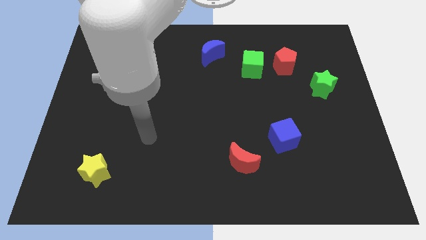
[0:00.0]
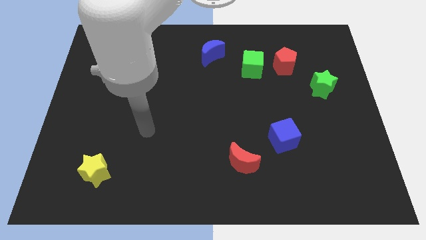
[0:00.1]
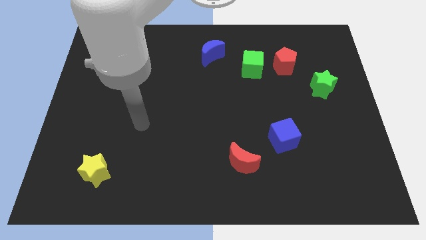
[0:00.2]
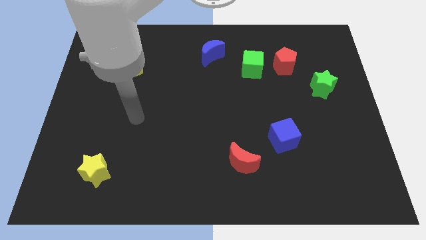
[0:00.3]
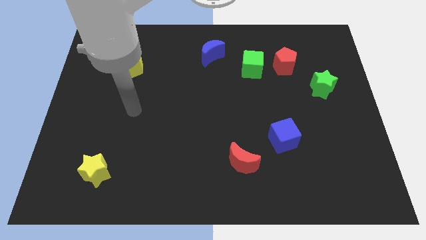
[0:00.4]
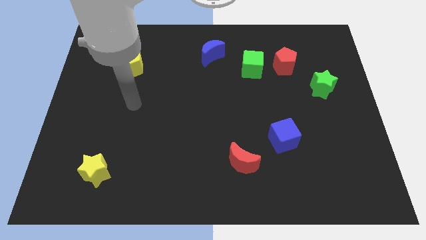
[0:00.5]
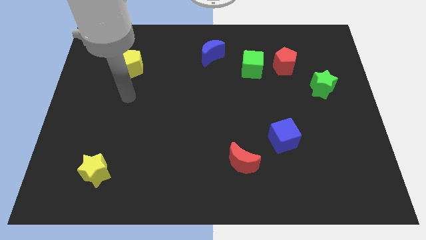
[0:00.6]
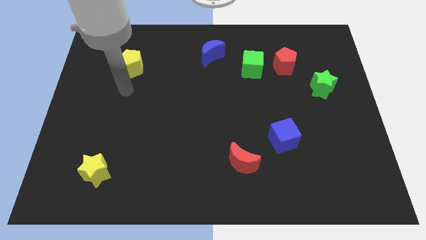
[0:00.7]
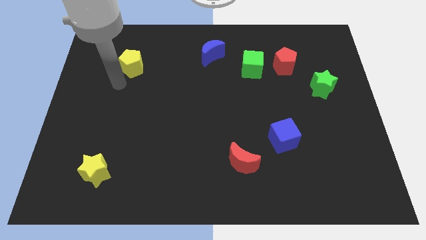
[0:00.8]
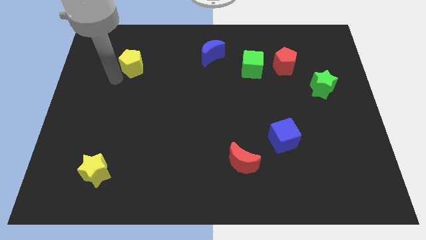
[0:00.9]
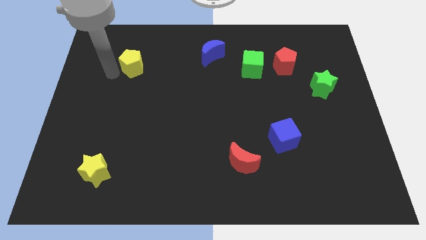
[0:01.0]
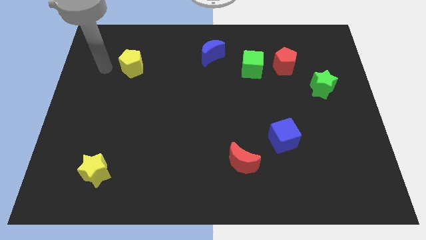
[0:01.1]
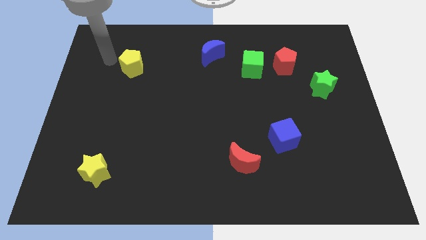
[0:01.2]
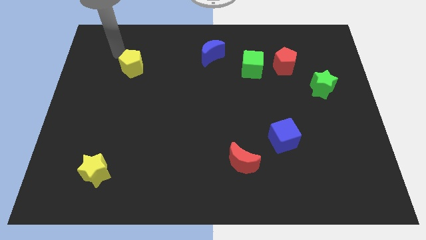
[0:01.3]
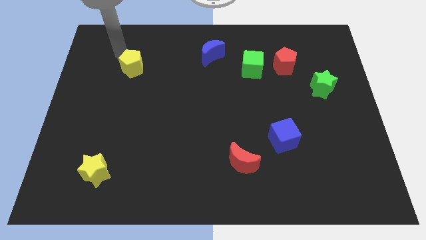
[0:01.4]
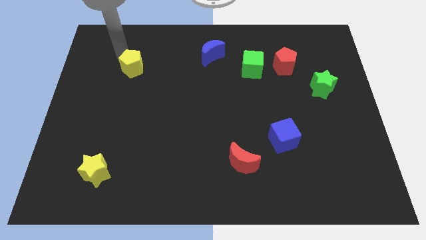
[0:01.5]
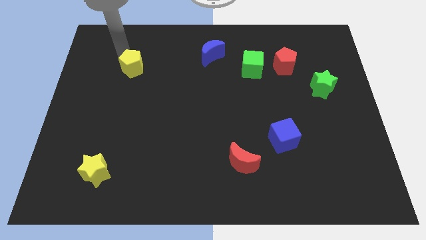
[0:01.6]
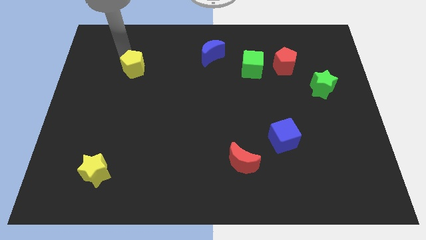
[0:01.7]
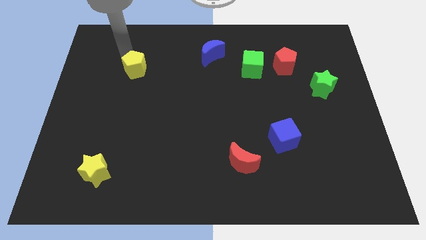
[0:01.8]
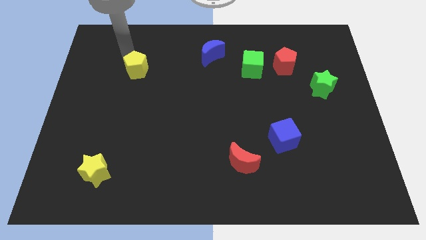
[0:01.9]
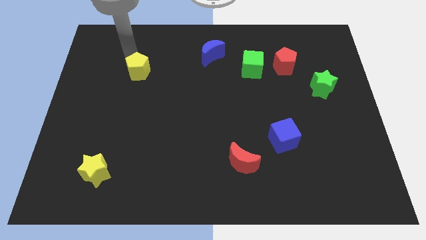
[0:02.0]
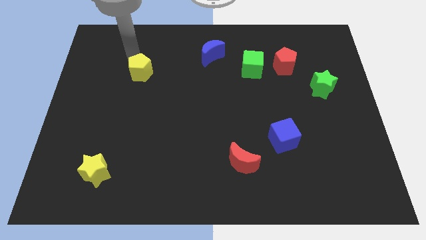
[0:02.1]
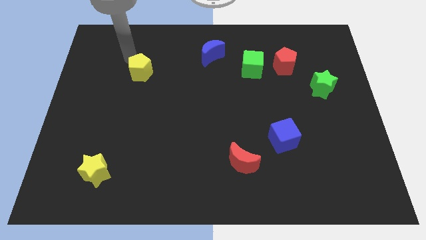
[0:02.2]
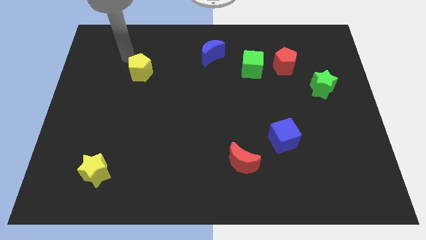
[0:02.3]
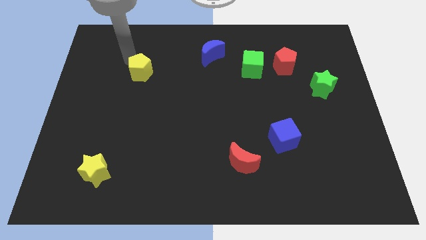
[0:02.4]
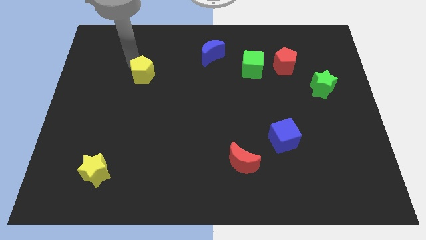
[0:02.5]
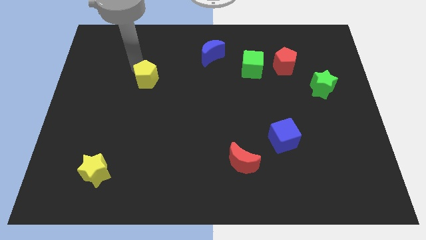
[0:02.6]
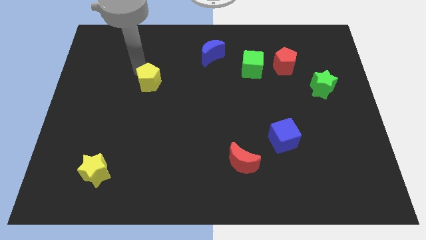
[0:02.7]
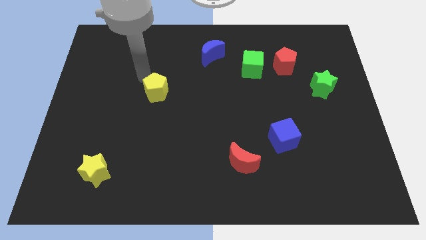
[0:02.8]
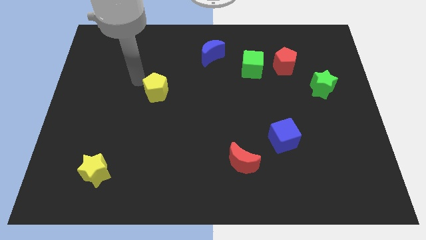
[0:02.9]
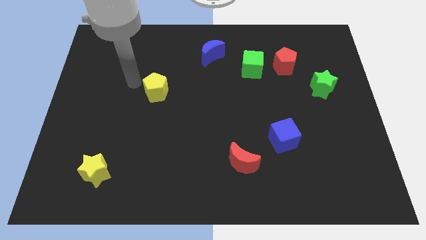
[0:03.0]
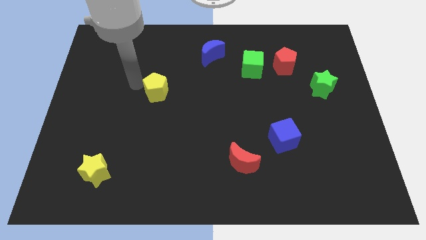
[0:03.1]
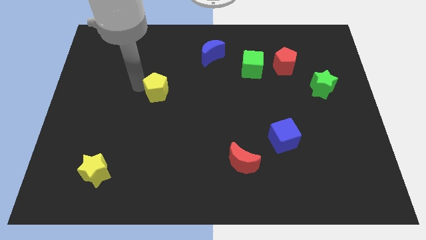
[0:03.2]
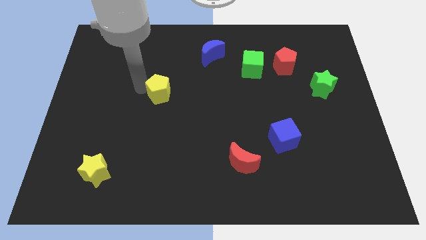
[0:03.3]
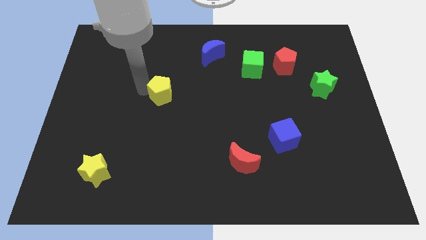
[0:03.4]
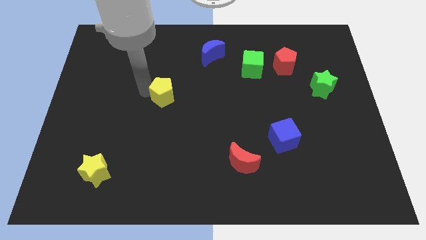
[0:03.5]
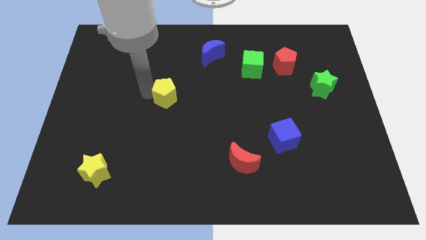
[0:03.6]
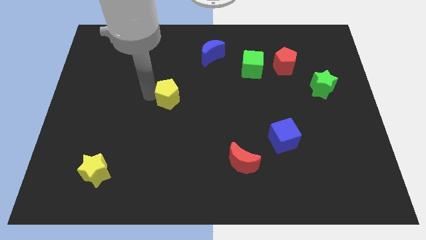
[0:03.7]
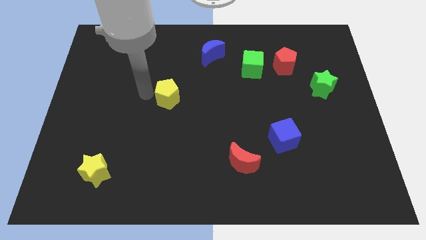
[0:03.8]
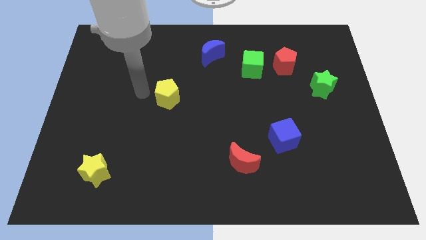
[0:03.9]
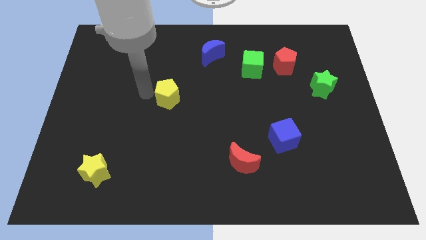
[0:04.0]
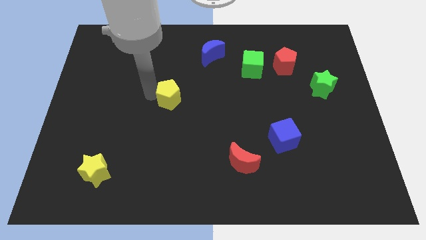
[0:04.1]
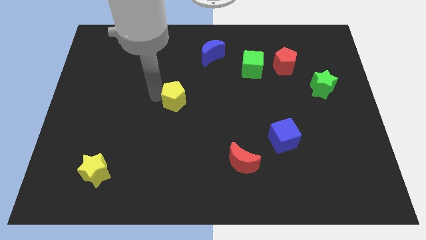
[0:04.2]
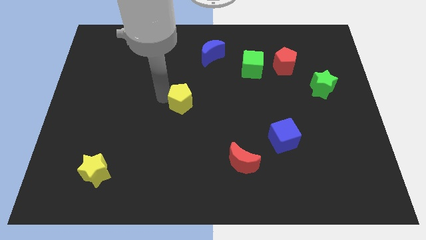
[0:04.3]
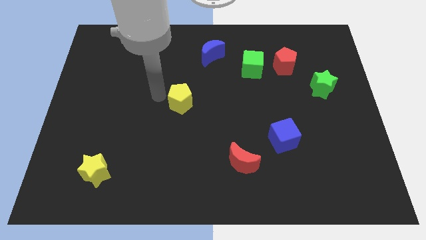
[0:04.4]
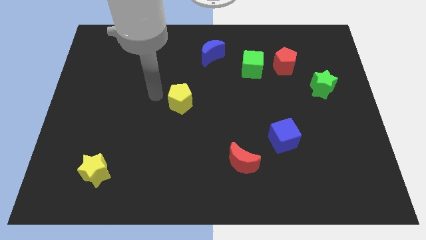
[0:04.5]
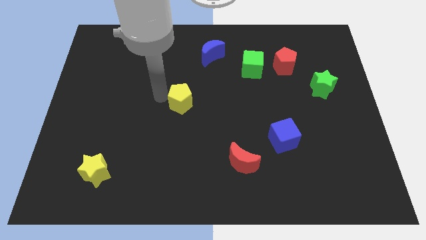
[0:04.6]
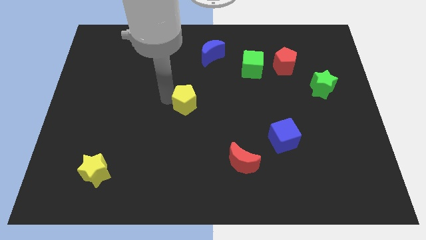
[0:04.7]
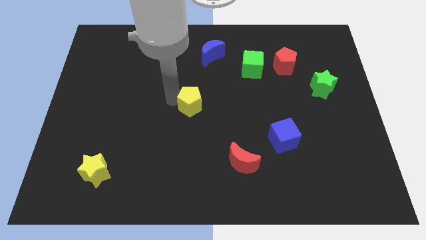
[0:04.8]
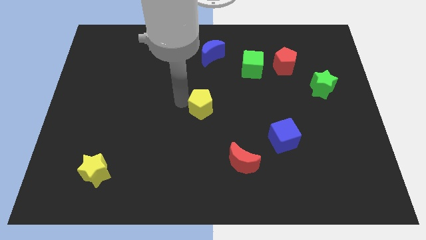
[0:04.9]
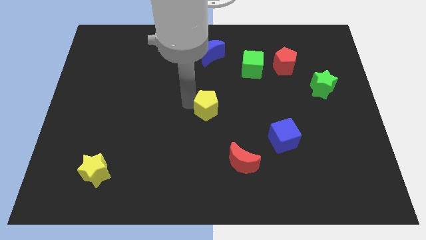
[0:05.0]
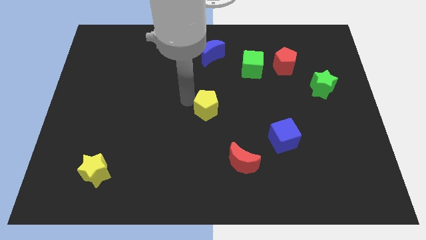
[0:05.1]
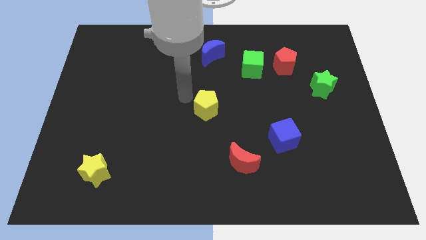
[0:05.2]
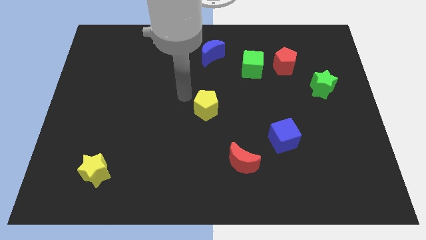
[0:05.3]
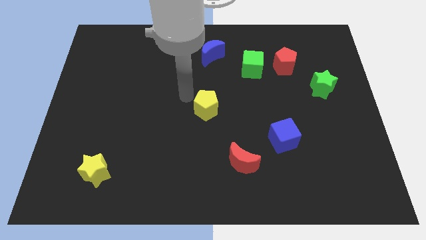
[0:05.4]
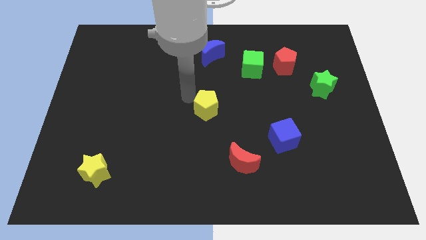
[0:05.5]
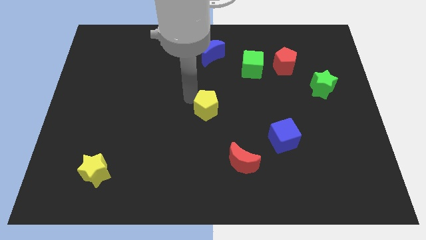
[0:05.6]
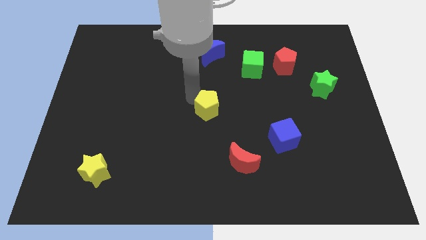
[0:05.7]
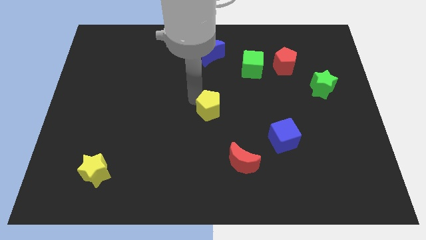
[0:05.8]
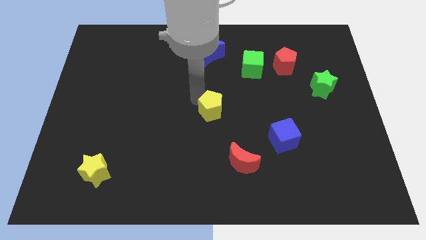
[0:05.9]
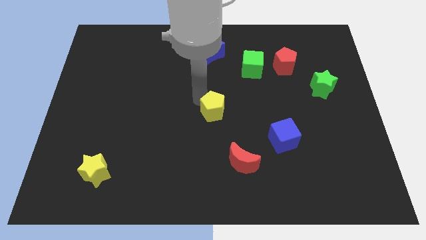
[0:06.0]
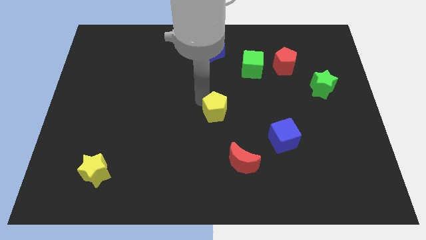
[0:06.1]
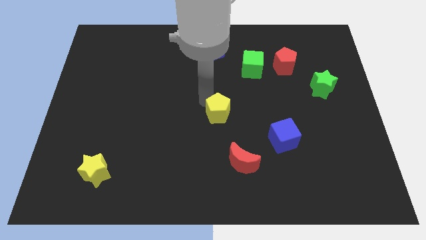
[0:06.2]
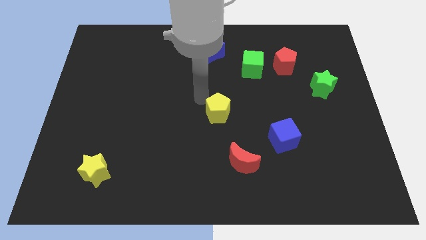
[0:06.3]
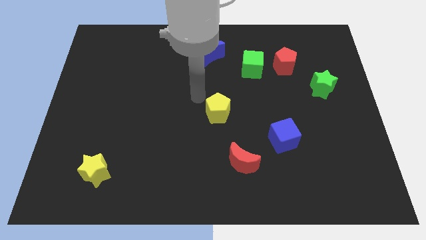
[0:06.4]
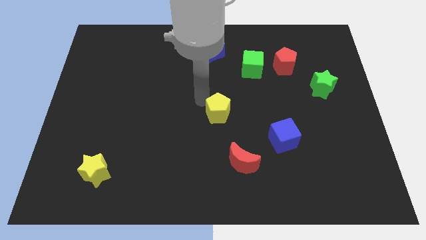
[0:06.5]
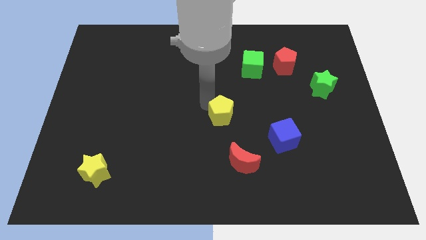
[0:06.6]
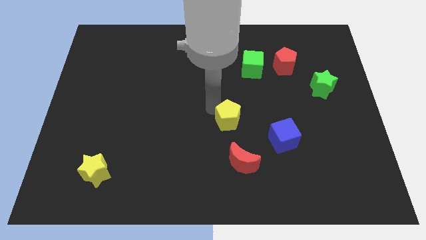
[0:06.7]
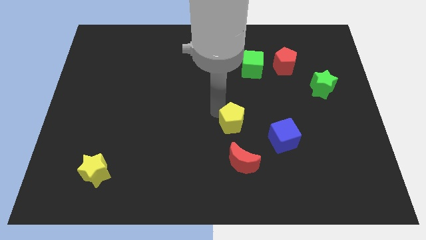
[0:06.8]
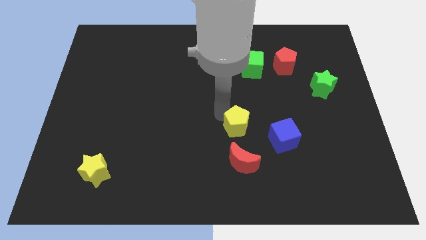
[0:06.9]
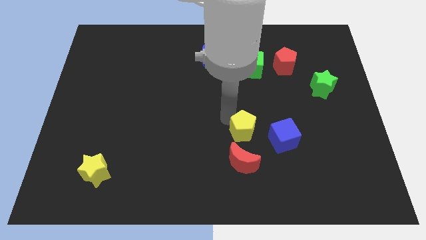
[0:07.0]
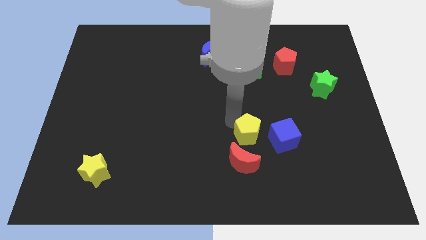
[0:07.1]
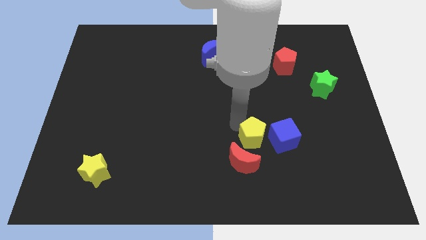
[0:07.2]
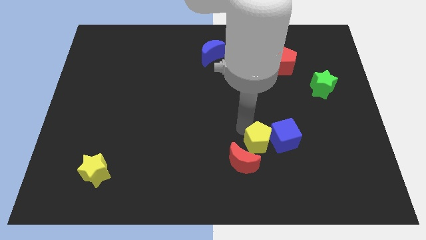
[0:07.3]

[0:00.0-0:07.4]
put the yellow pentagon diagonally down and to the left of the blue cube
